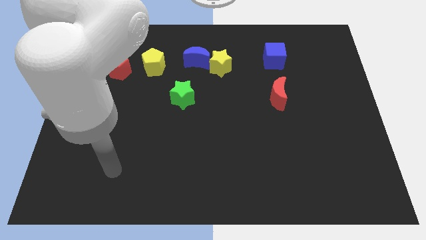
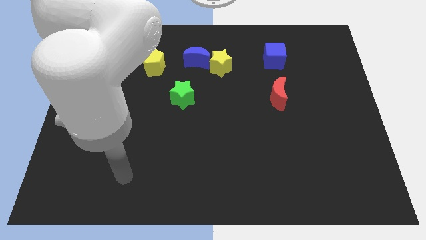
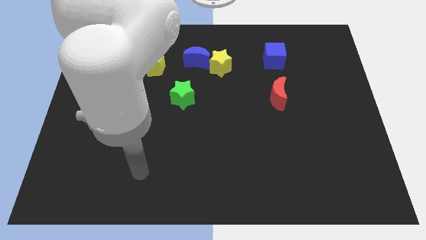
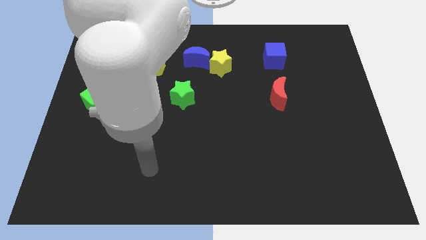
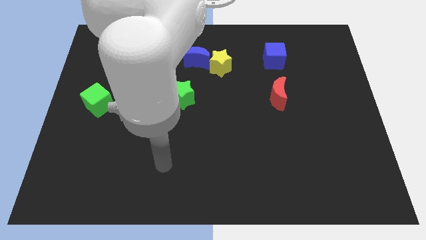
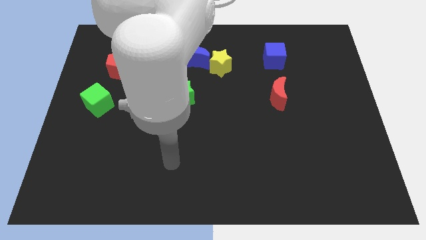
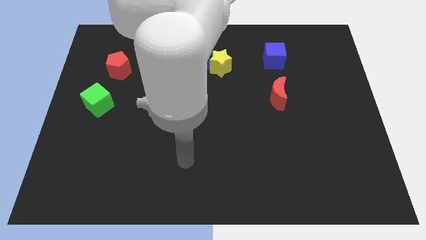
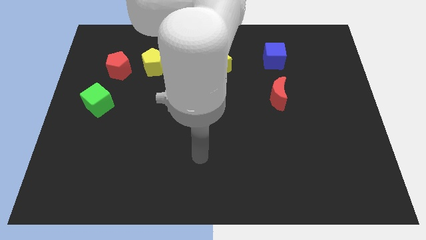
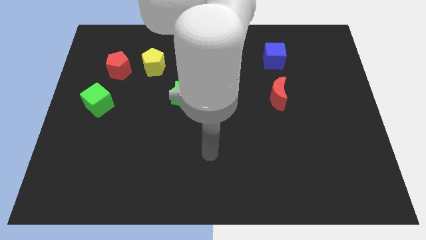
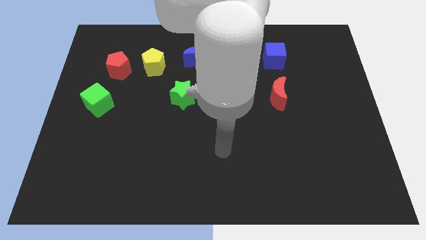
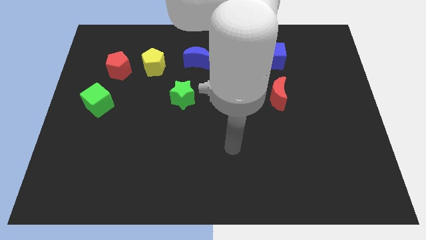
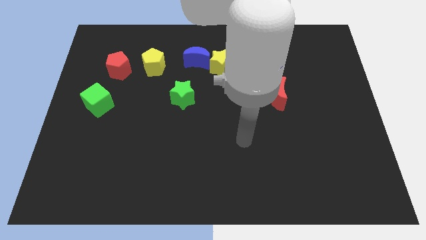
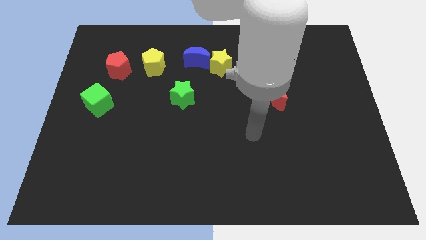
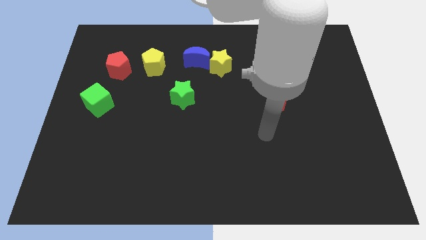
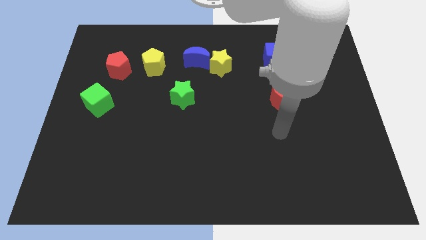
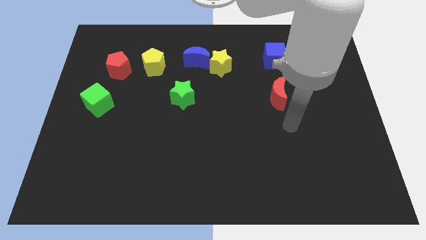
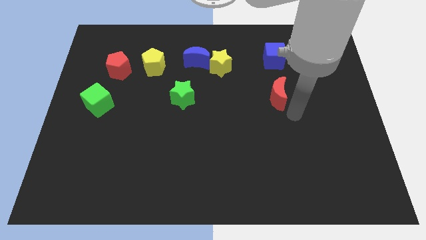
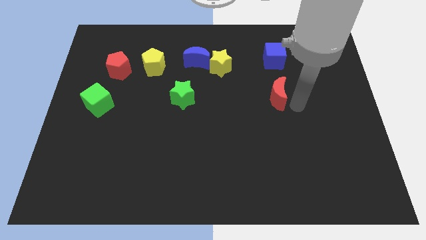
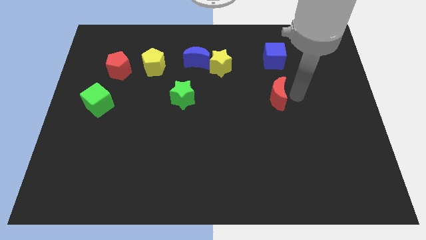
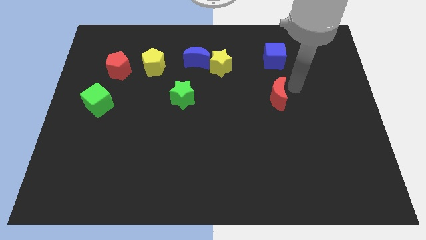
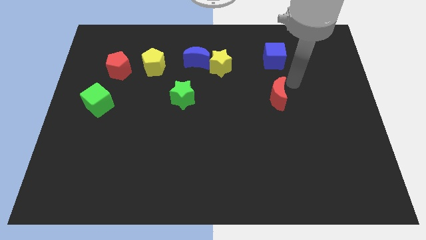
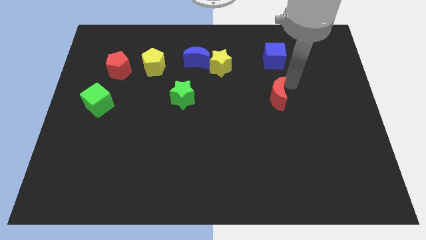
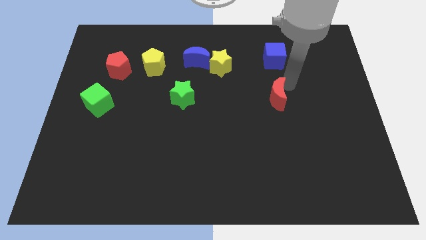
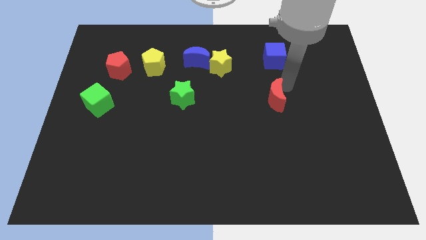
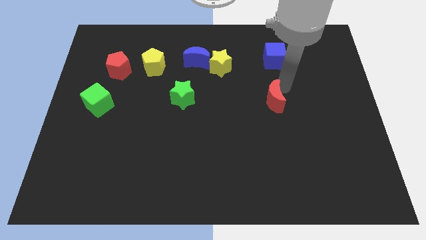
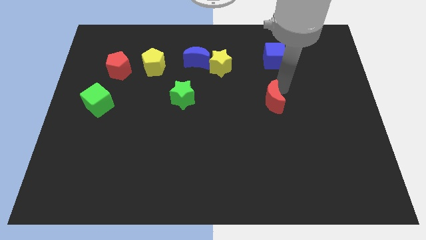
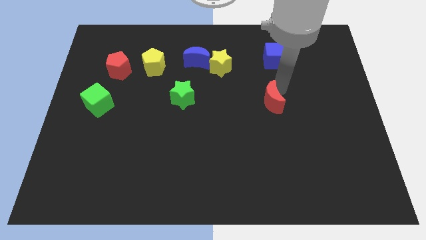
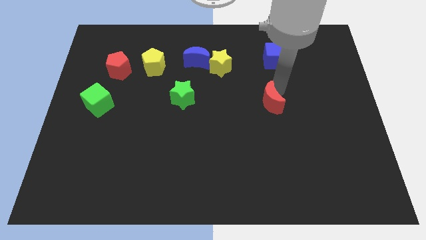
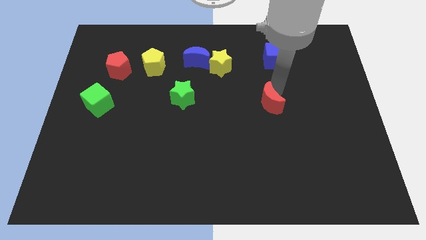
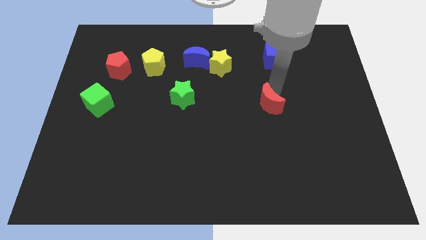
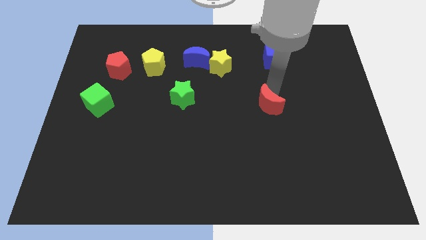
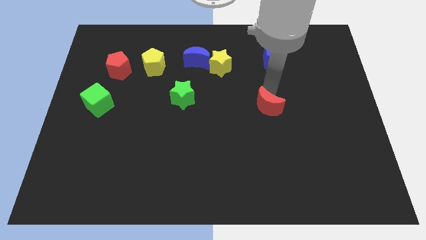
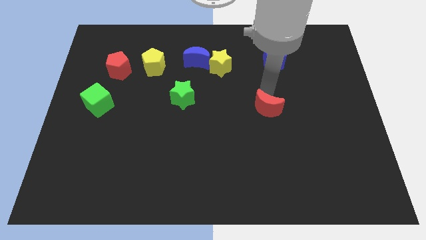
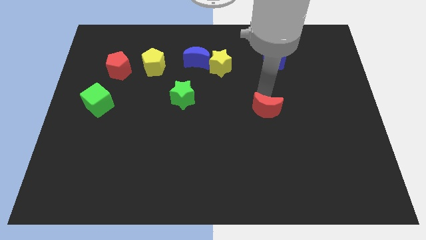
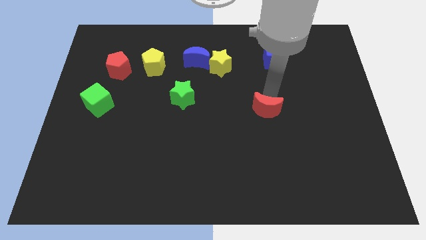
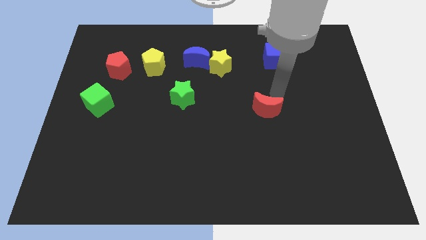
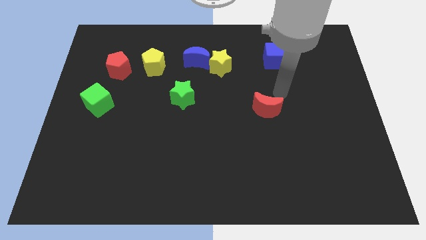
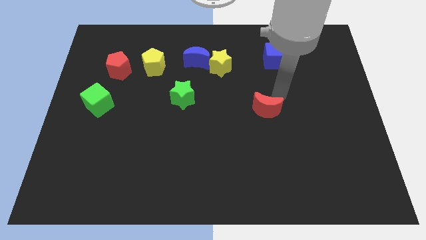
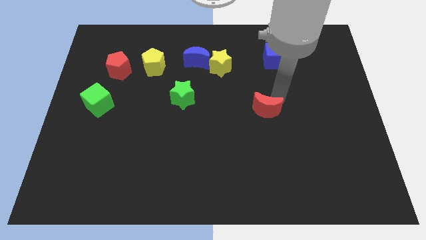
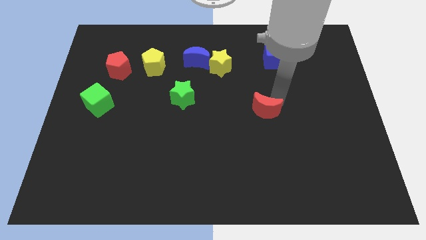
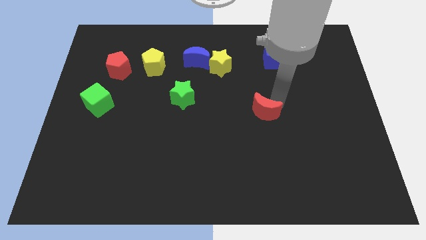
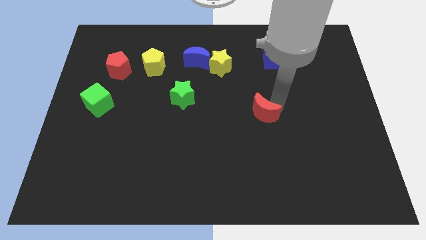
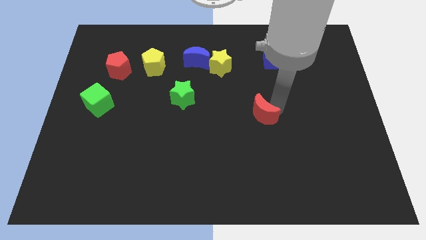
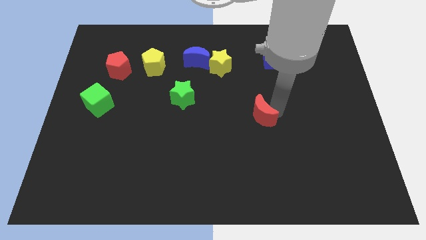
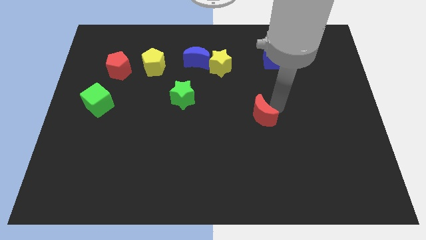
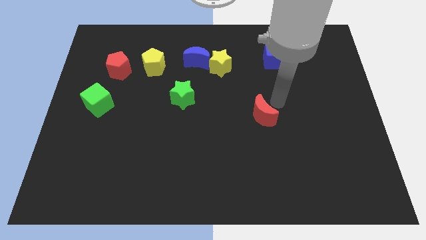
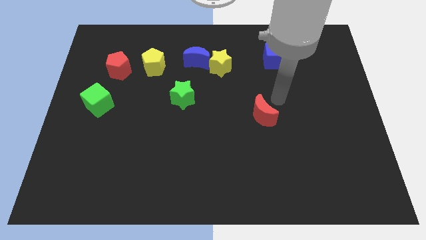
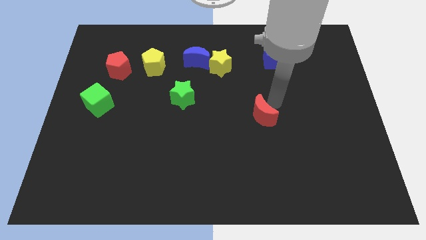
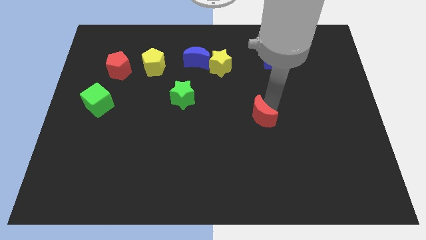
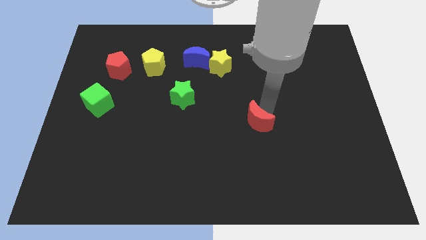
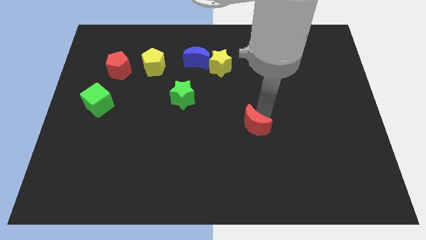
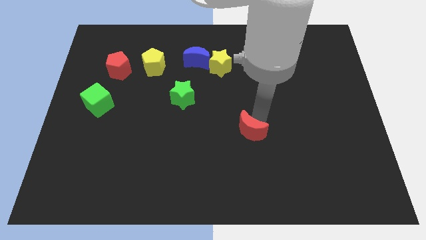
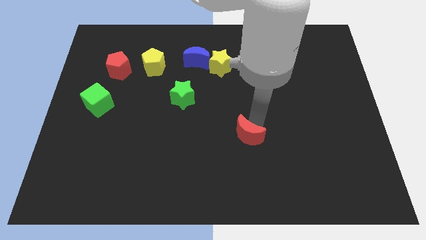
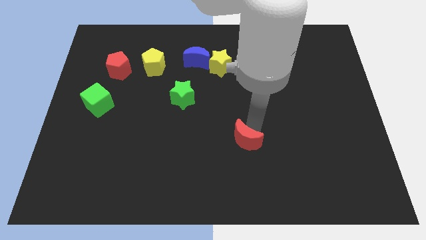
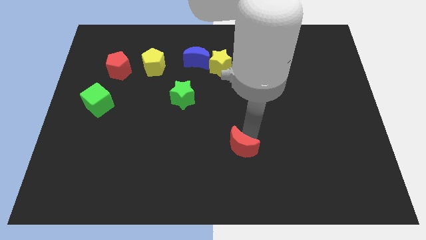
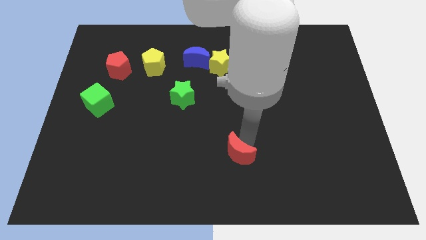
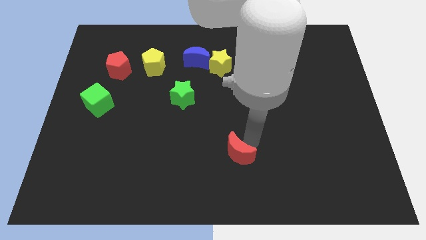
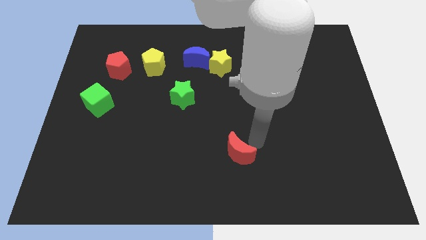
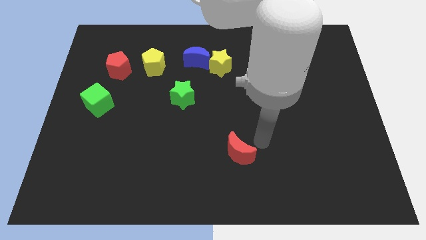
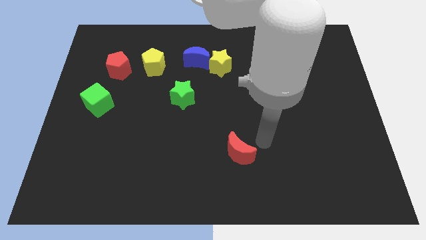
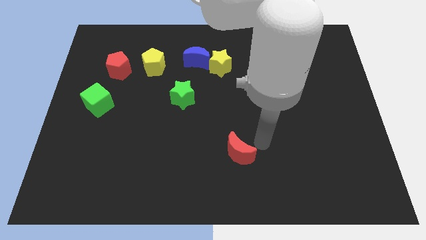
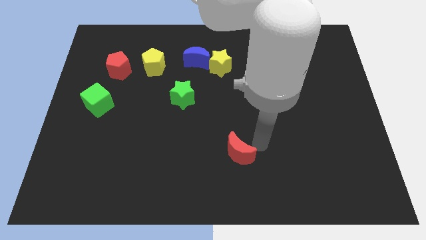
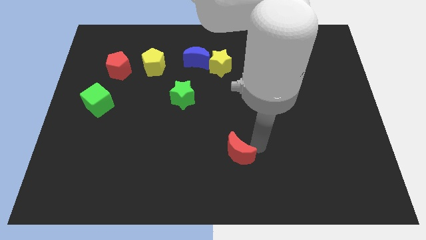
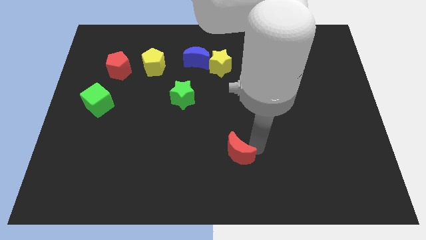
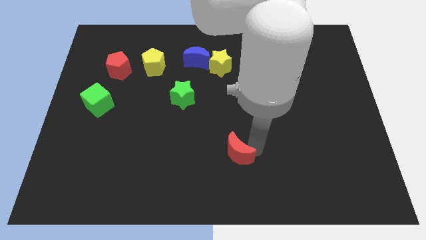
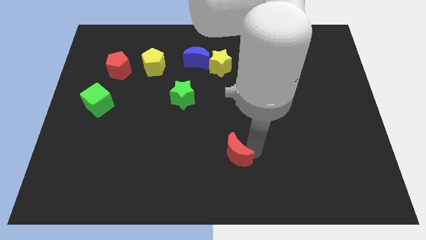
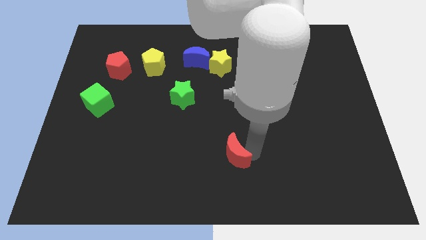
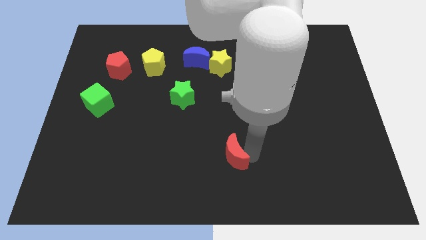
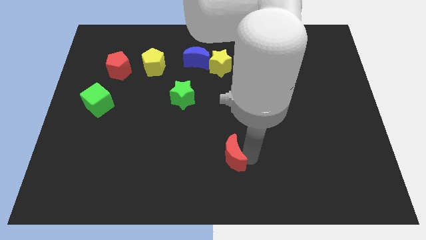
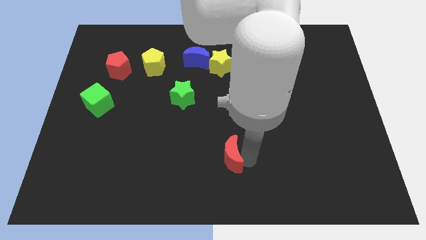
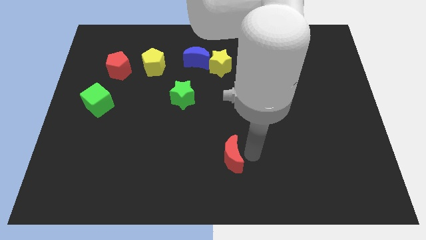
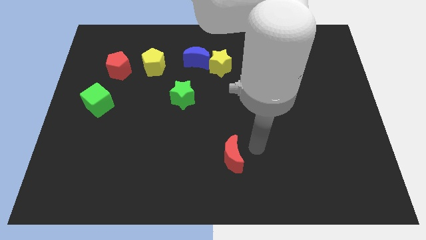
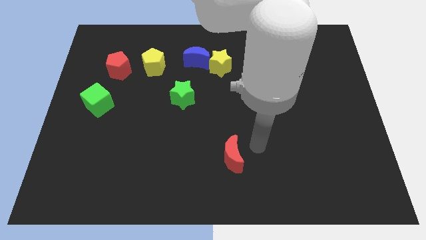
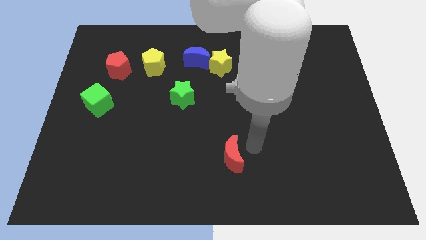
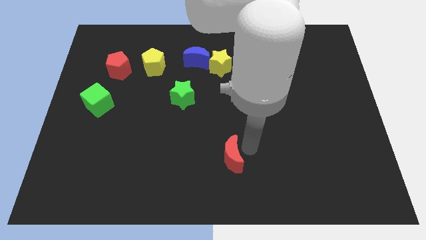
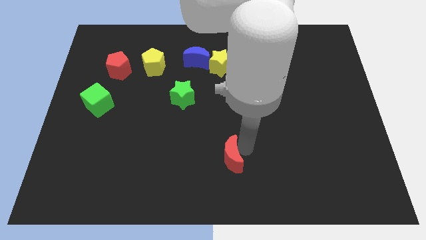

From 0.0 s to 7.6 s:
move the red moon down and to the left

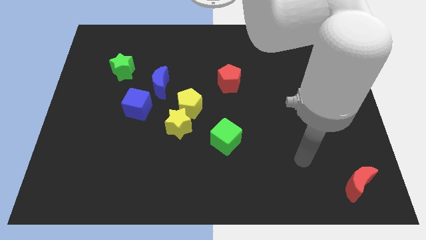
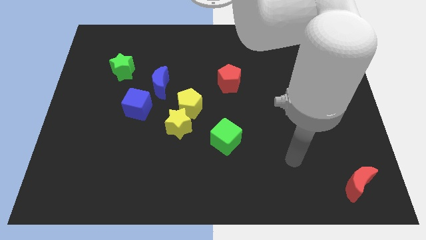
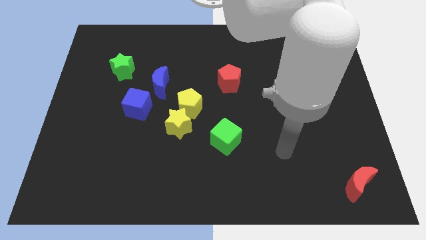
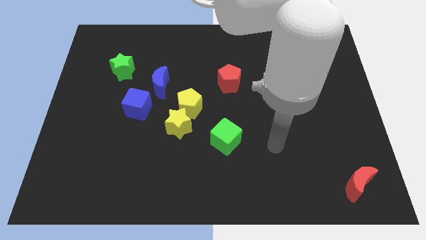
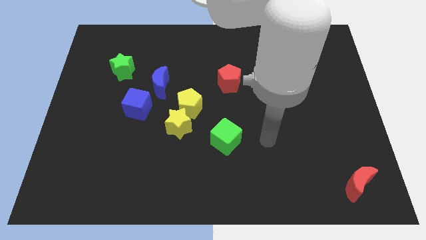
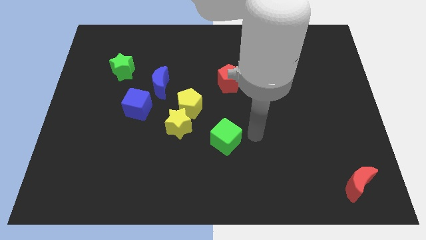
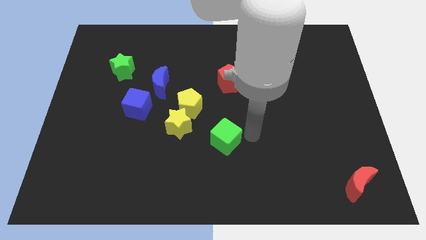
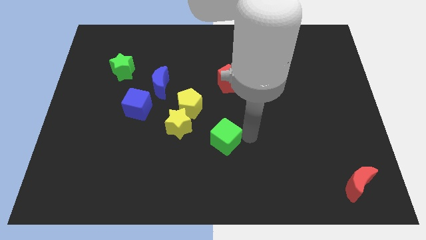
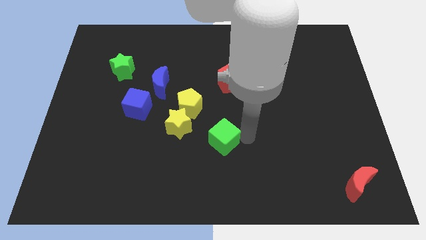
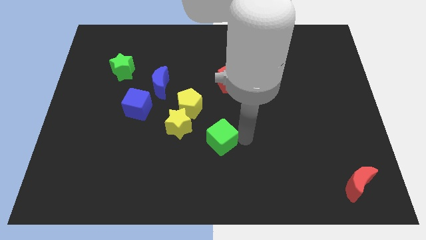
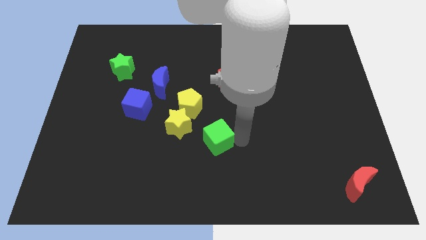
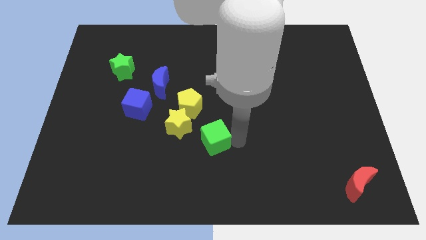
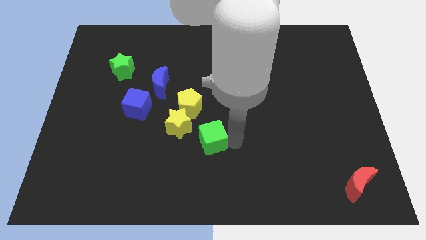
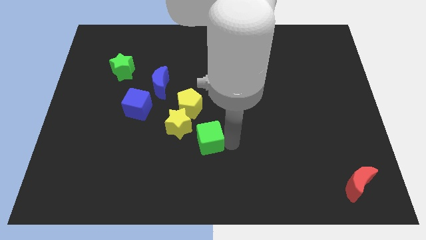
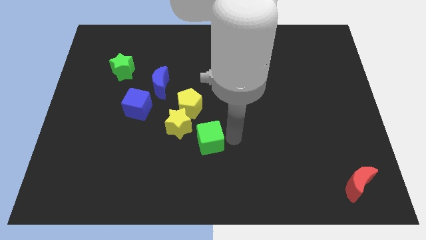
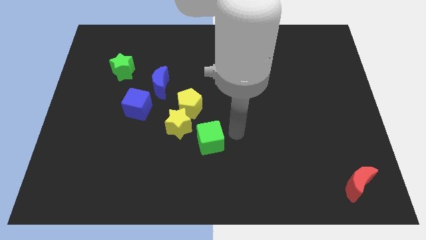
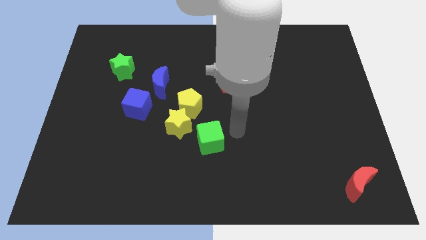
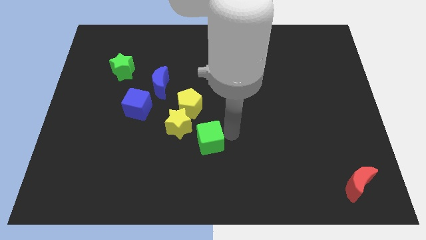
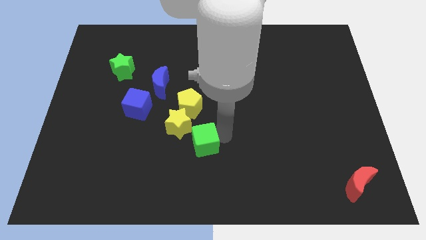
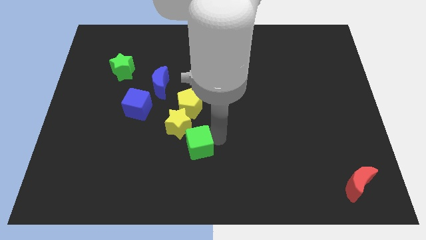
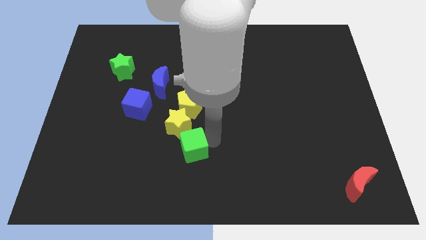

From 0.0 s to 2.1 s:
slightly move the green cube to the left
